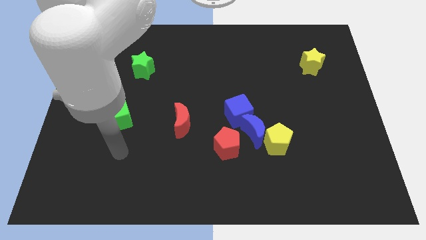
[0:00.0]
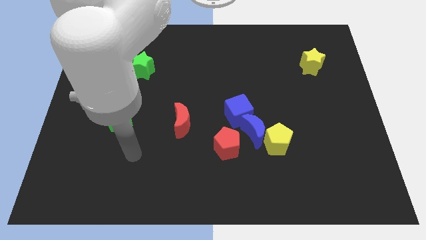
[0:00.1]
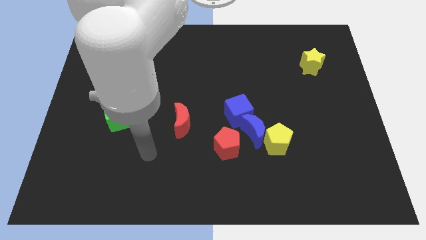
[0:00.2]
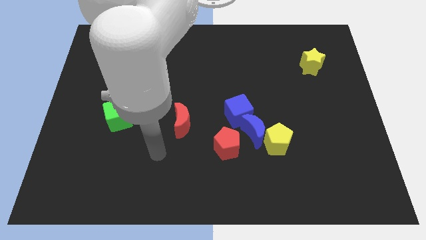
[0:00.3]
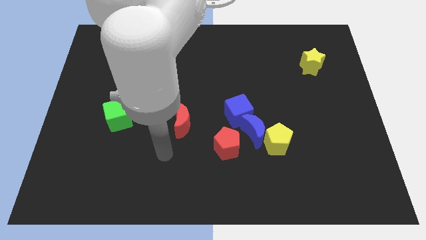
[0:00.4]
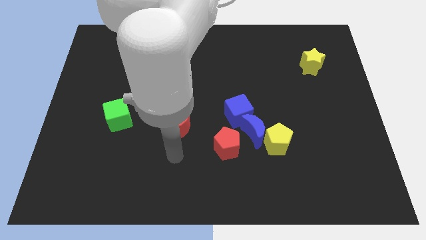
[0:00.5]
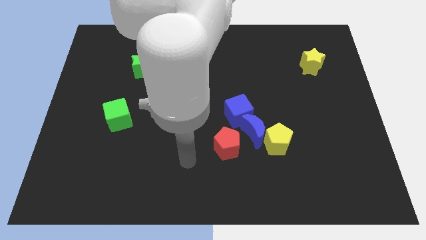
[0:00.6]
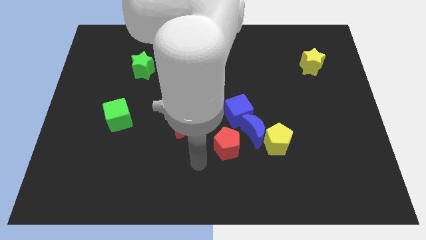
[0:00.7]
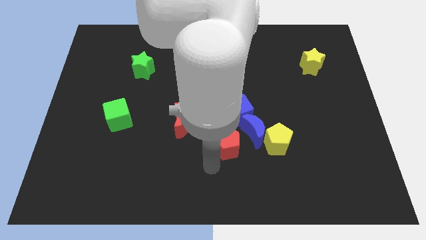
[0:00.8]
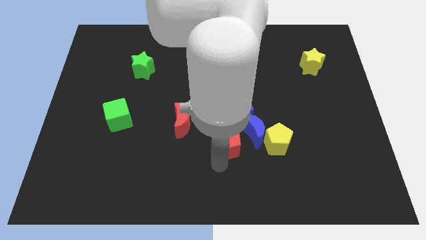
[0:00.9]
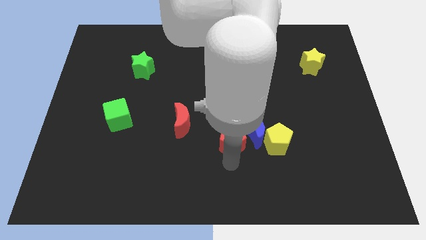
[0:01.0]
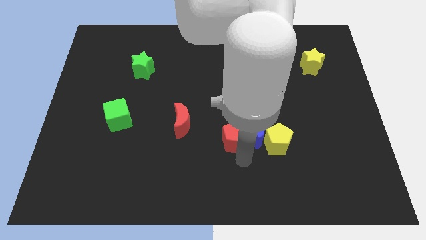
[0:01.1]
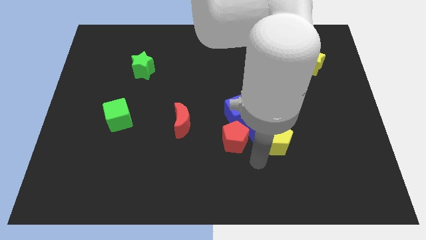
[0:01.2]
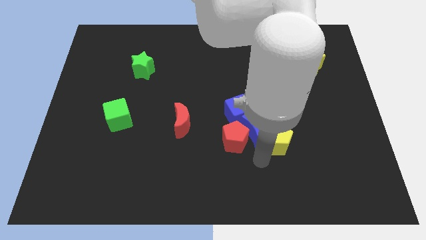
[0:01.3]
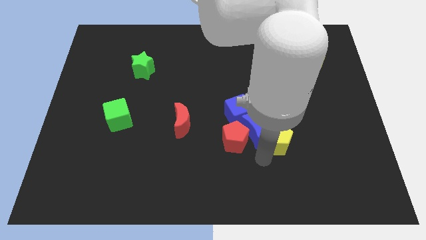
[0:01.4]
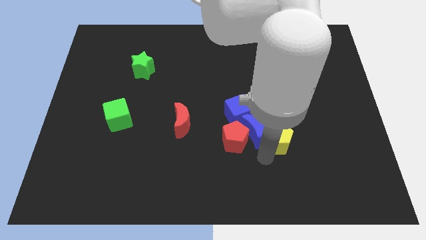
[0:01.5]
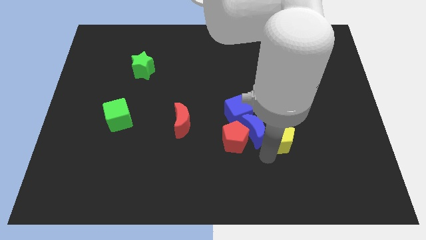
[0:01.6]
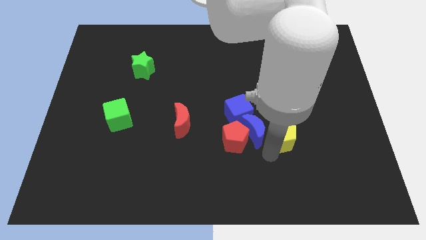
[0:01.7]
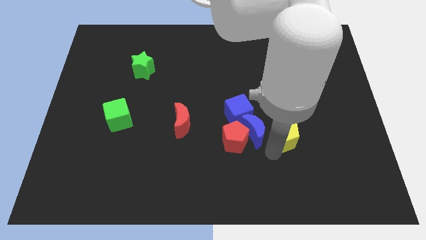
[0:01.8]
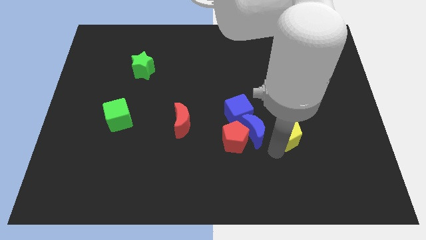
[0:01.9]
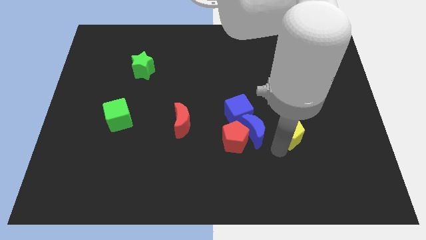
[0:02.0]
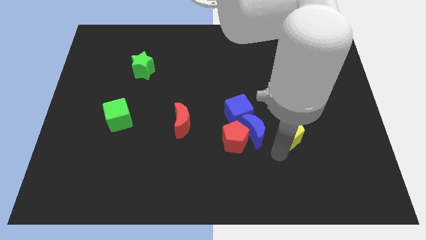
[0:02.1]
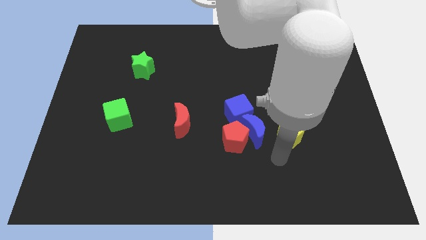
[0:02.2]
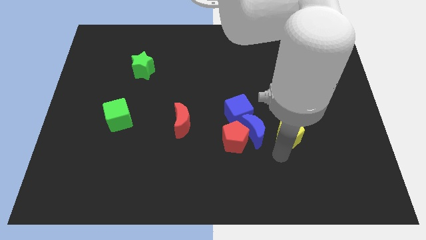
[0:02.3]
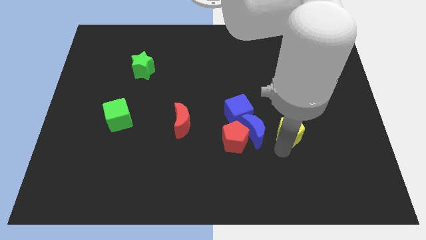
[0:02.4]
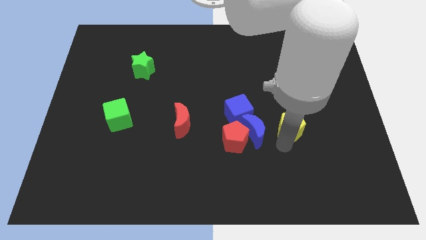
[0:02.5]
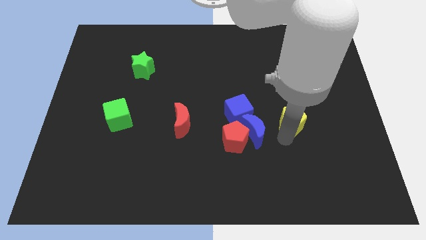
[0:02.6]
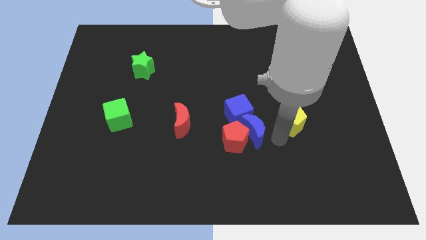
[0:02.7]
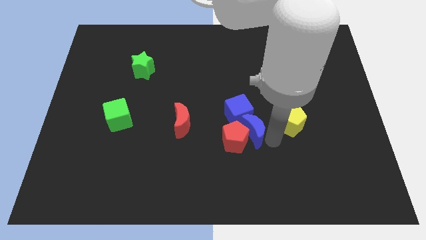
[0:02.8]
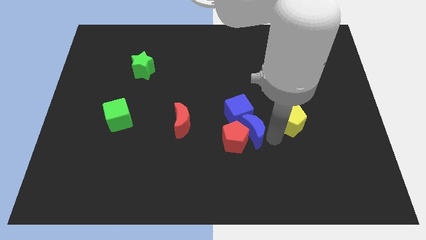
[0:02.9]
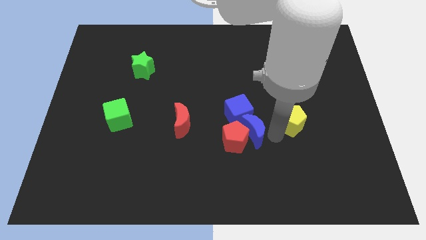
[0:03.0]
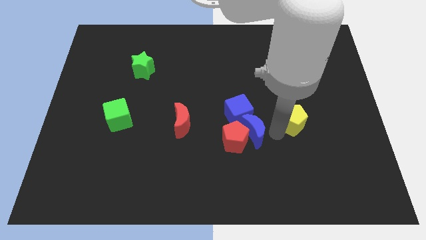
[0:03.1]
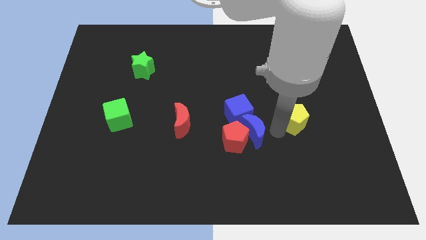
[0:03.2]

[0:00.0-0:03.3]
slightly slide the yellow pentagon up and then to the right

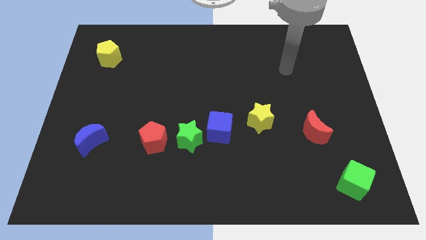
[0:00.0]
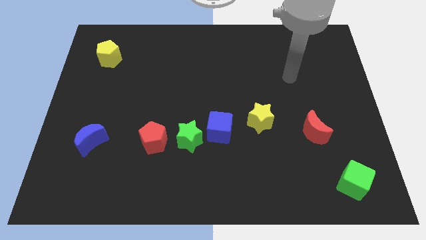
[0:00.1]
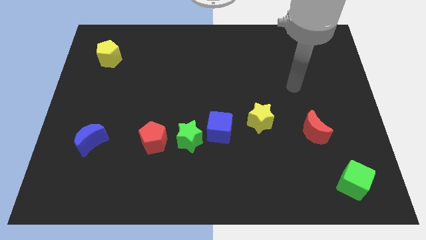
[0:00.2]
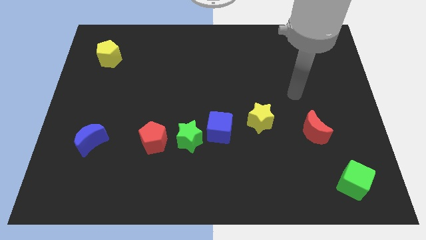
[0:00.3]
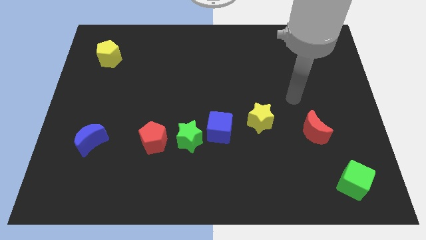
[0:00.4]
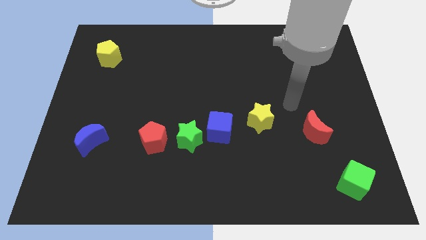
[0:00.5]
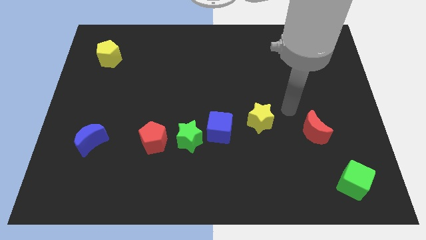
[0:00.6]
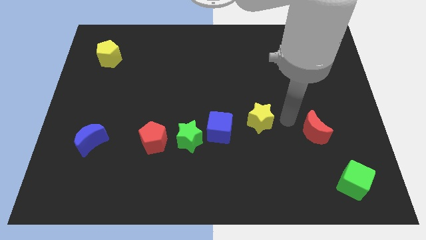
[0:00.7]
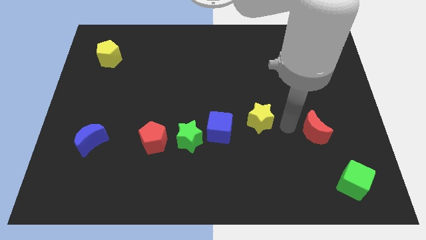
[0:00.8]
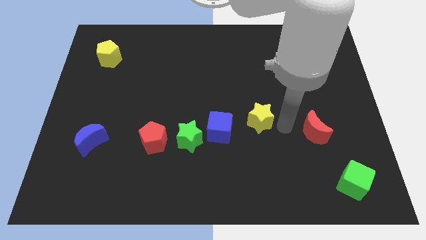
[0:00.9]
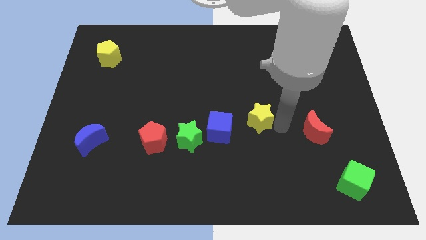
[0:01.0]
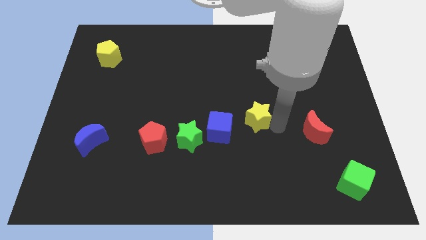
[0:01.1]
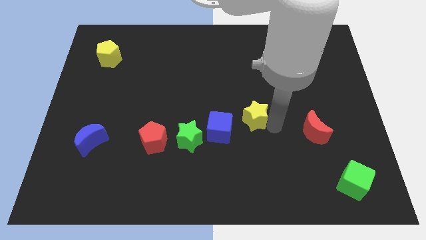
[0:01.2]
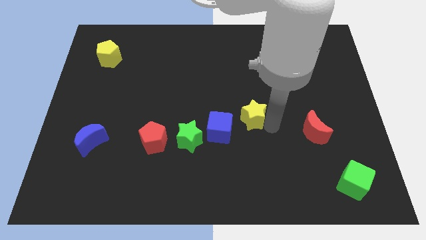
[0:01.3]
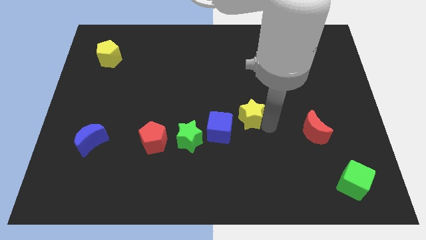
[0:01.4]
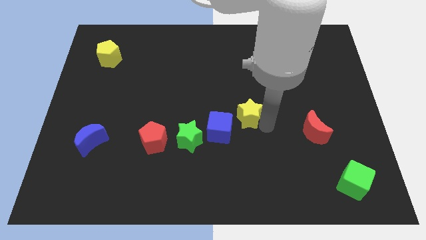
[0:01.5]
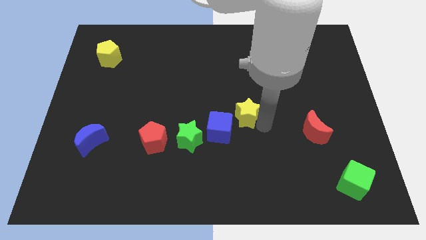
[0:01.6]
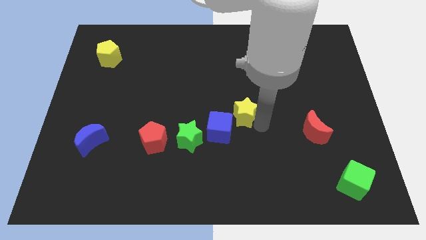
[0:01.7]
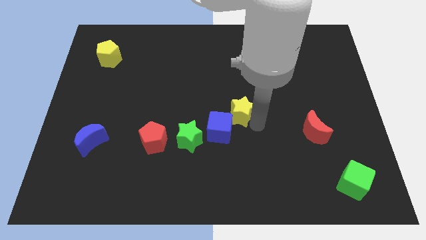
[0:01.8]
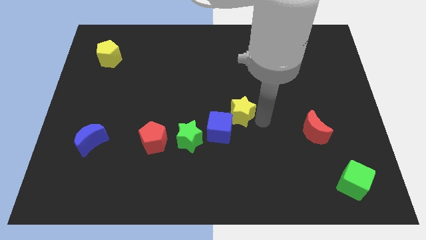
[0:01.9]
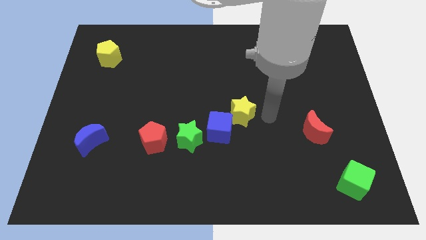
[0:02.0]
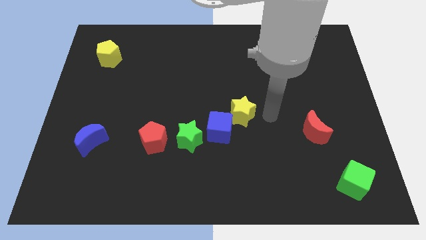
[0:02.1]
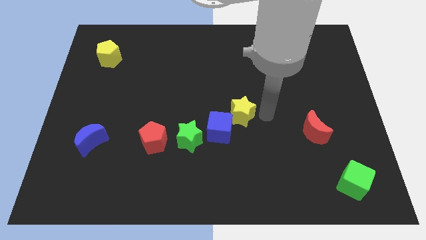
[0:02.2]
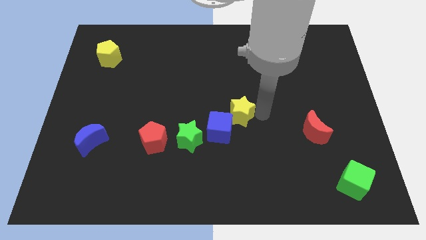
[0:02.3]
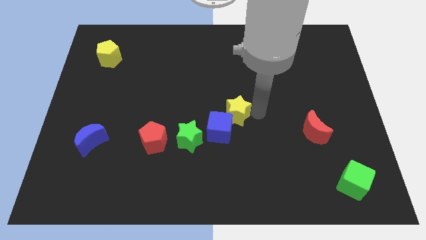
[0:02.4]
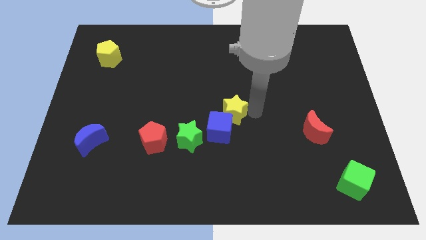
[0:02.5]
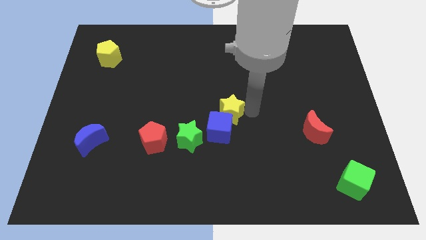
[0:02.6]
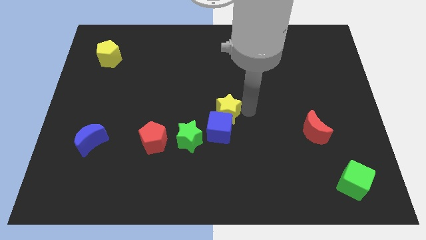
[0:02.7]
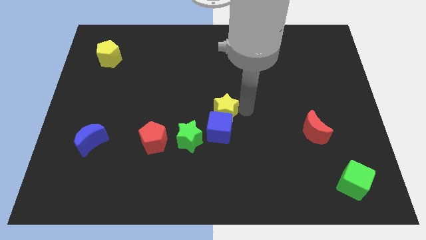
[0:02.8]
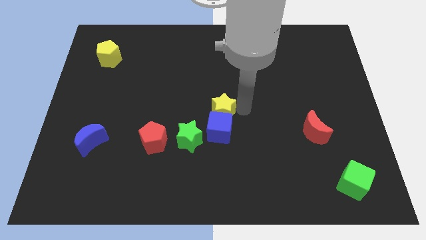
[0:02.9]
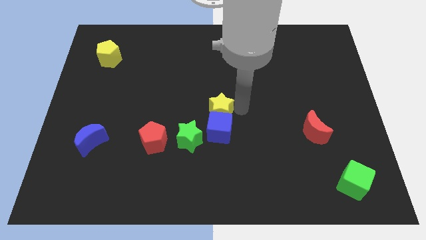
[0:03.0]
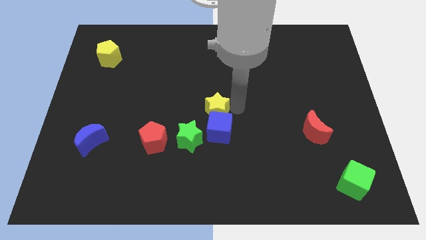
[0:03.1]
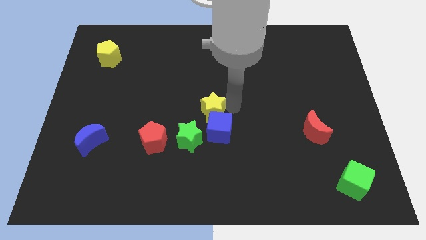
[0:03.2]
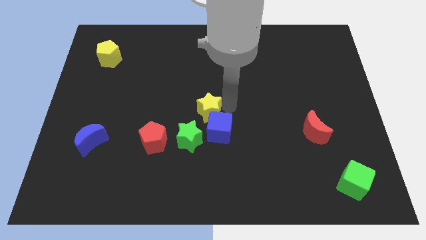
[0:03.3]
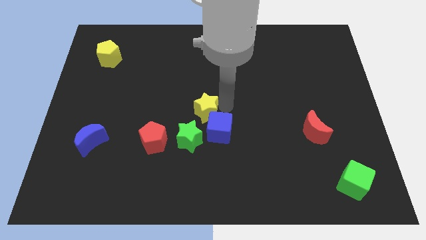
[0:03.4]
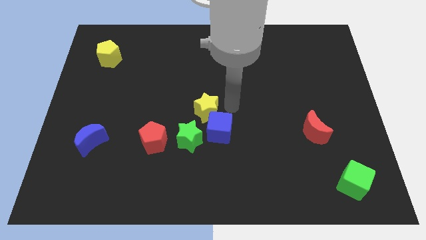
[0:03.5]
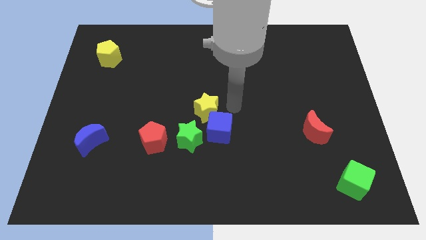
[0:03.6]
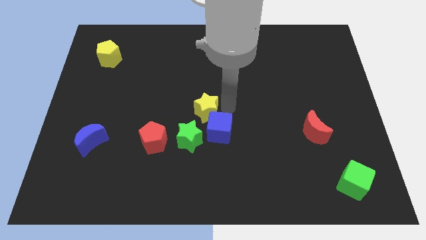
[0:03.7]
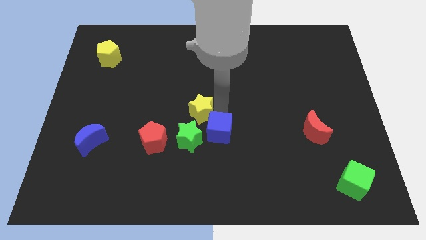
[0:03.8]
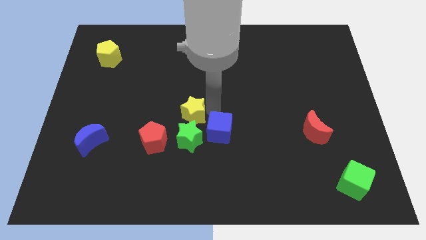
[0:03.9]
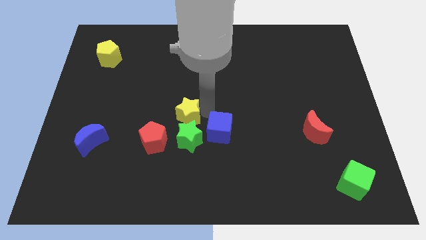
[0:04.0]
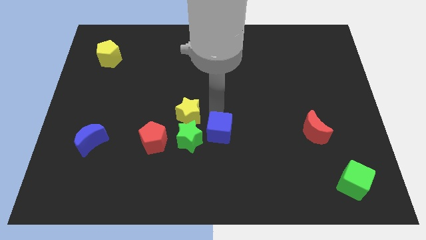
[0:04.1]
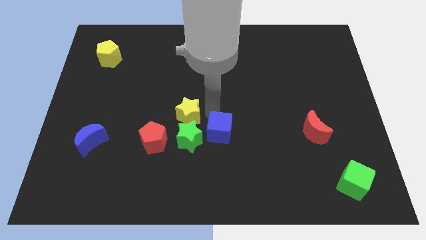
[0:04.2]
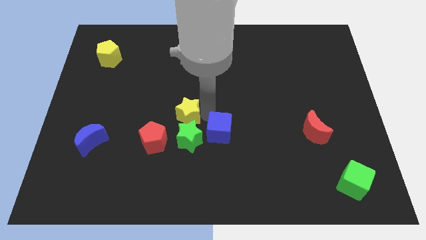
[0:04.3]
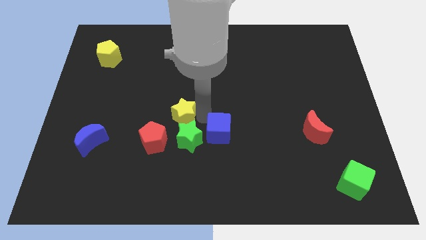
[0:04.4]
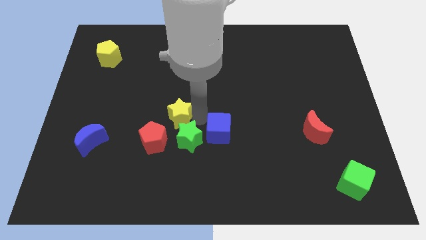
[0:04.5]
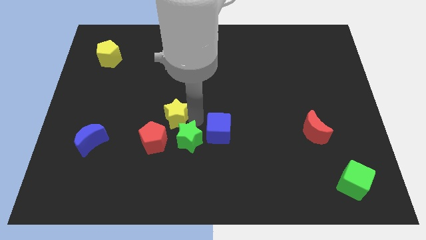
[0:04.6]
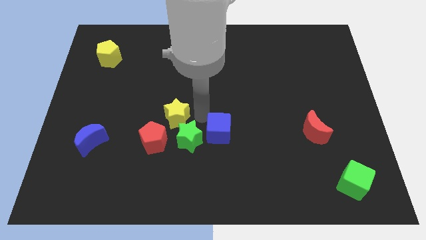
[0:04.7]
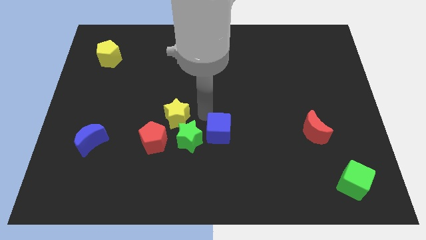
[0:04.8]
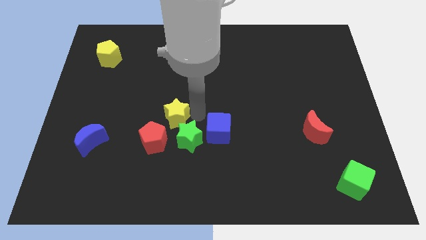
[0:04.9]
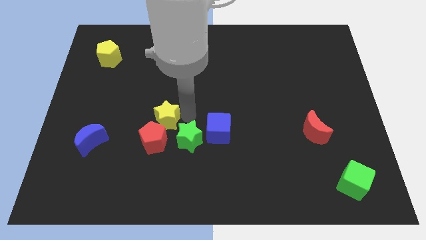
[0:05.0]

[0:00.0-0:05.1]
push the yellow star to the left
